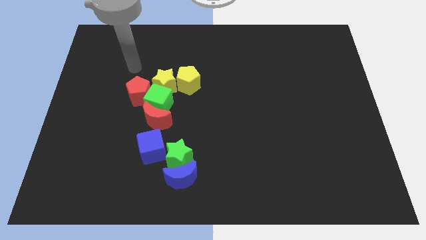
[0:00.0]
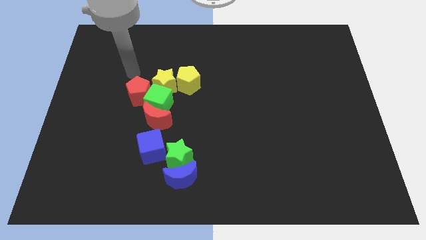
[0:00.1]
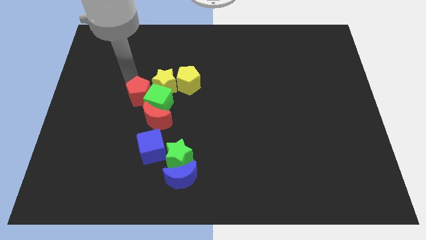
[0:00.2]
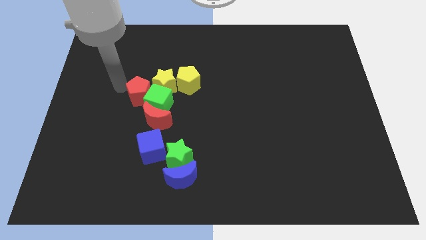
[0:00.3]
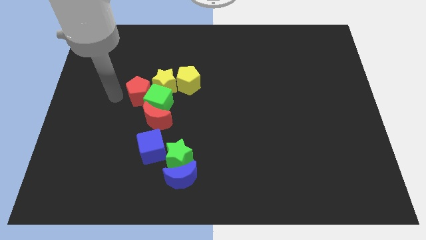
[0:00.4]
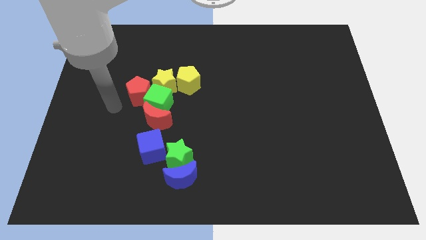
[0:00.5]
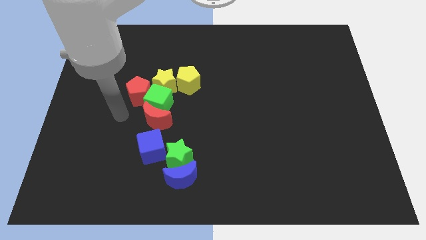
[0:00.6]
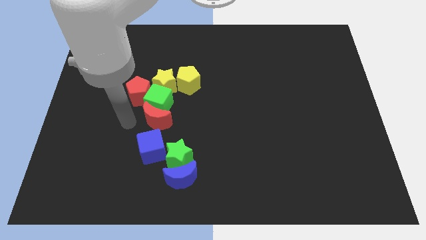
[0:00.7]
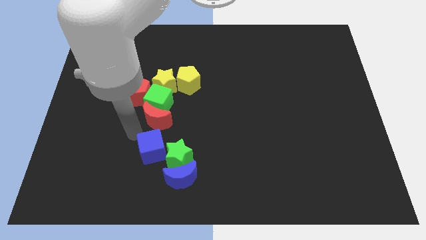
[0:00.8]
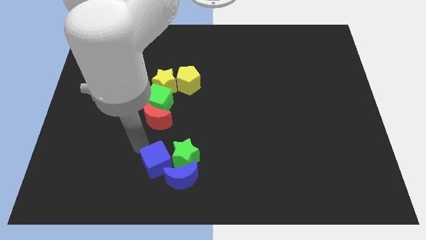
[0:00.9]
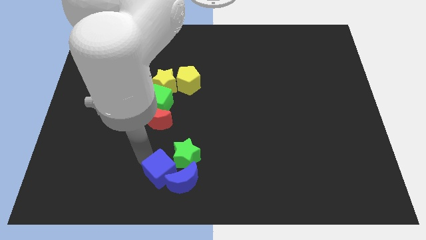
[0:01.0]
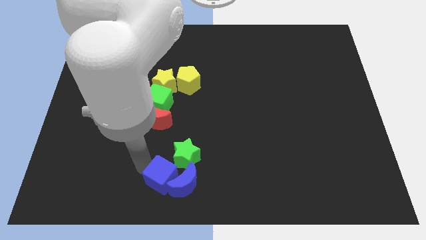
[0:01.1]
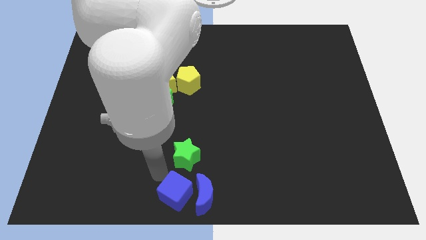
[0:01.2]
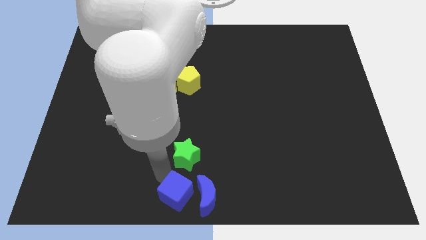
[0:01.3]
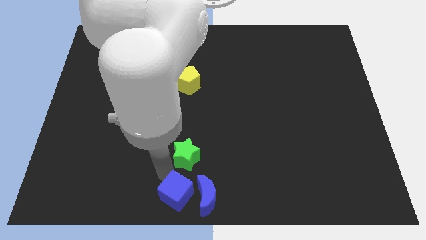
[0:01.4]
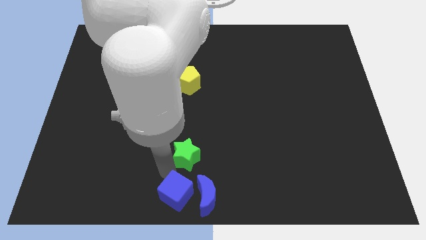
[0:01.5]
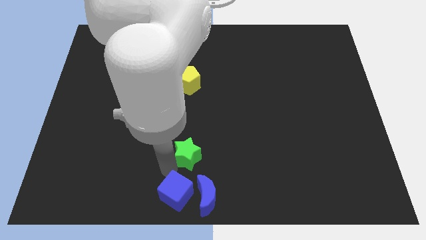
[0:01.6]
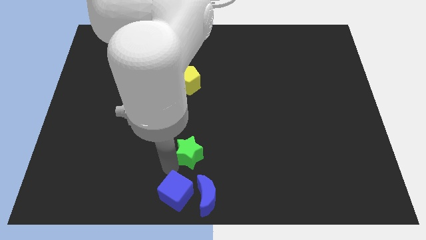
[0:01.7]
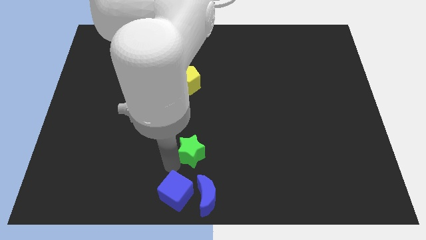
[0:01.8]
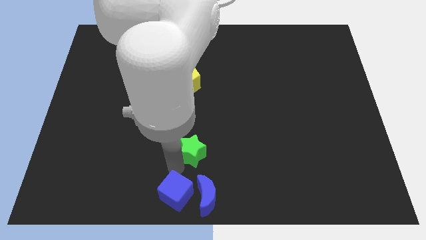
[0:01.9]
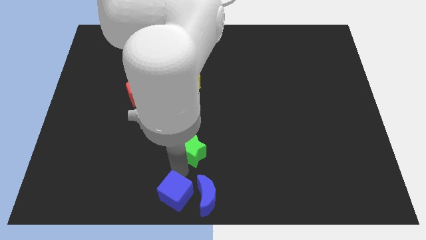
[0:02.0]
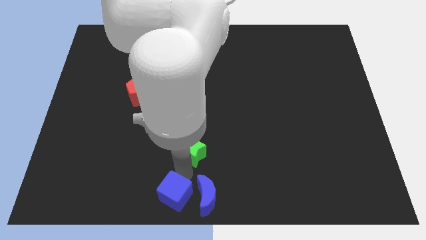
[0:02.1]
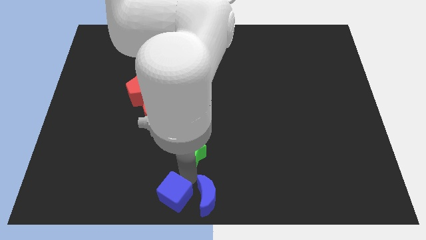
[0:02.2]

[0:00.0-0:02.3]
move the green star away from the blue moon and blue cube

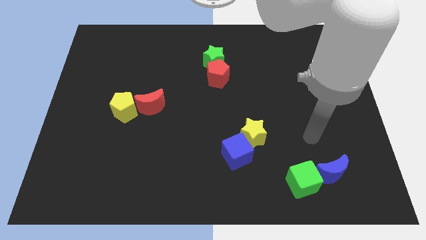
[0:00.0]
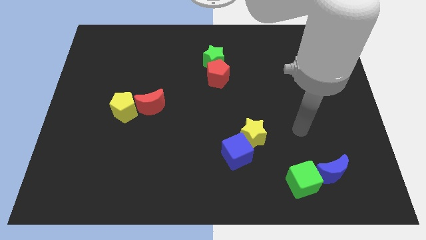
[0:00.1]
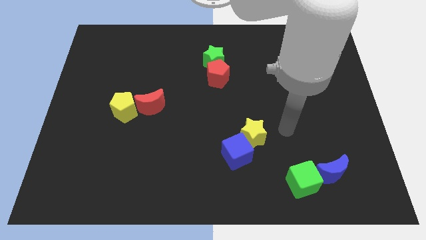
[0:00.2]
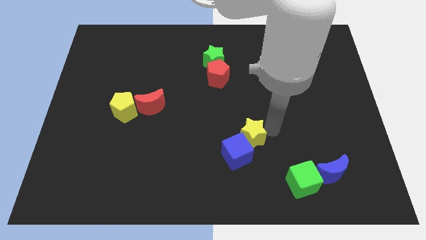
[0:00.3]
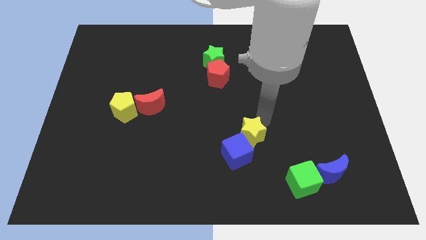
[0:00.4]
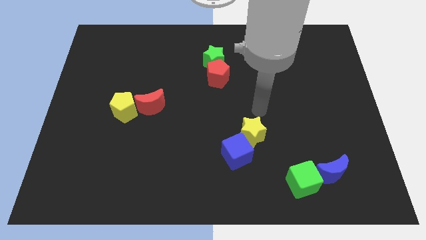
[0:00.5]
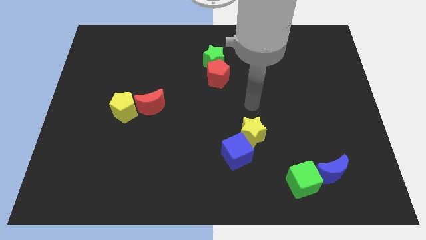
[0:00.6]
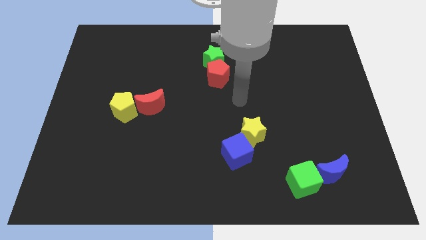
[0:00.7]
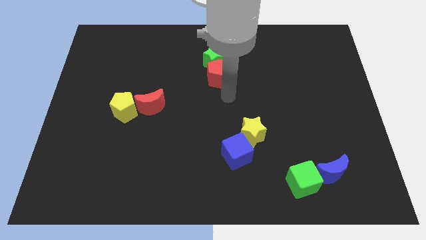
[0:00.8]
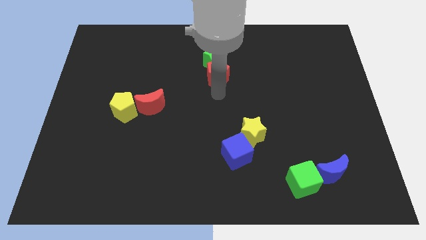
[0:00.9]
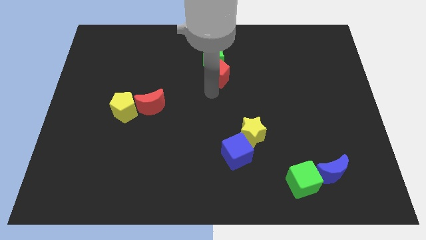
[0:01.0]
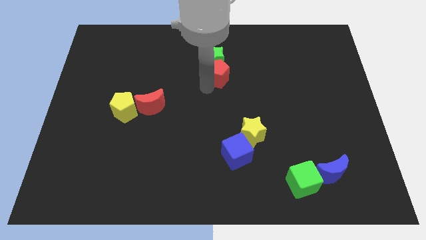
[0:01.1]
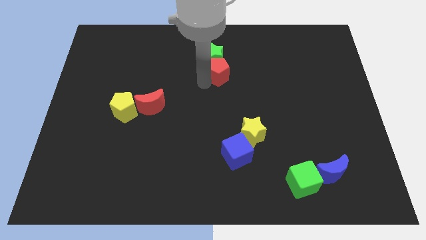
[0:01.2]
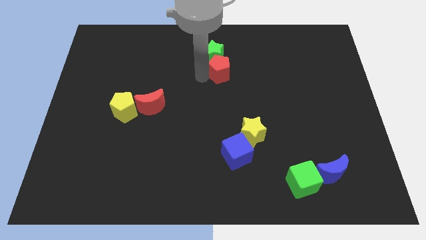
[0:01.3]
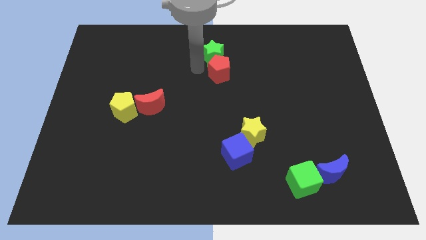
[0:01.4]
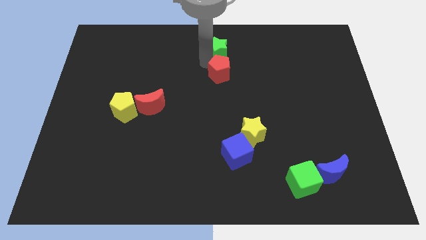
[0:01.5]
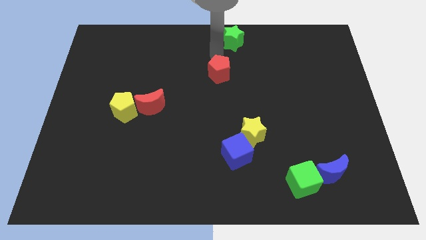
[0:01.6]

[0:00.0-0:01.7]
move the red pentagon away from the green star

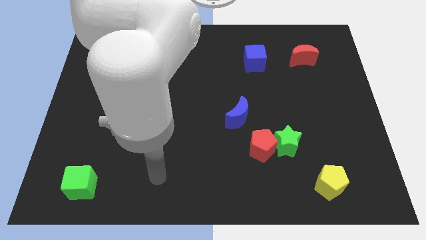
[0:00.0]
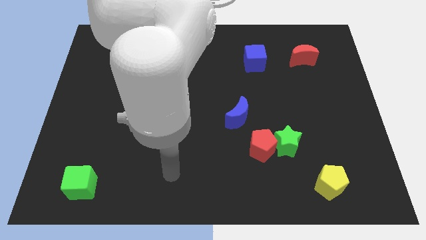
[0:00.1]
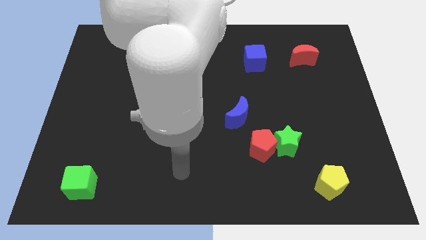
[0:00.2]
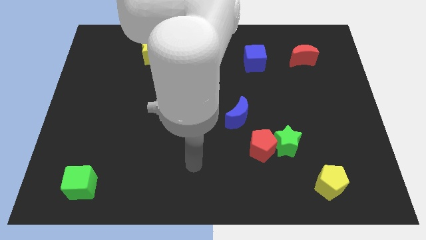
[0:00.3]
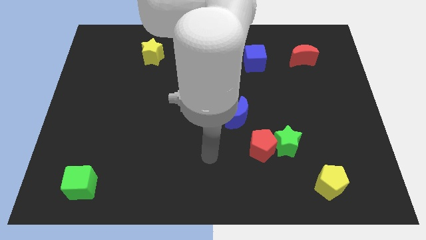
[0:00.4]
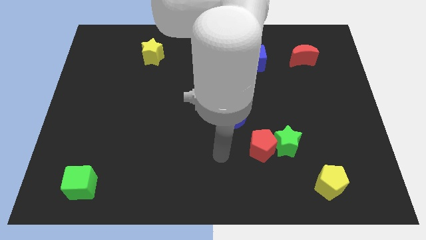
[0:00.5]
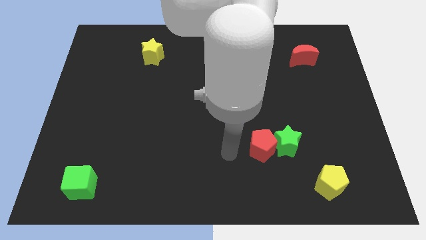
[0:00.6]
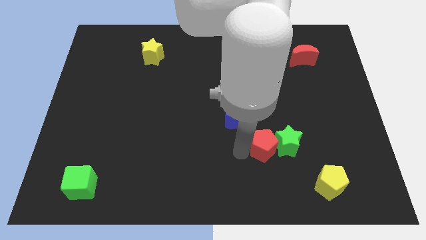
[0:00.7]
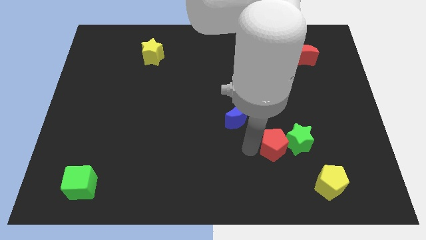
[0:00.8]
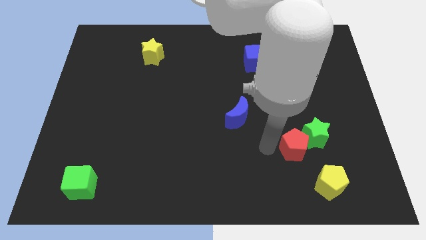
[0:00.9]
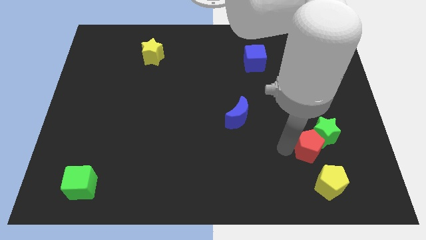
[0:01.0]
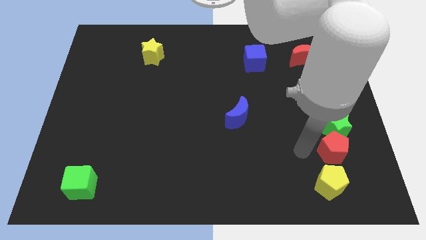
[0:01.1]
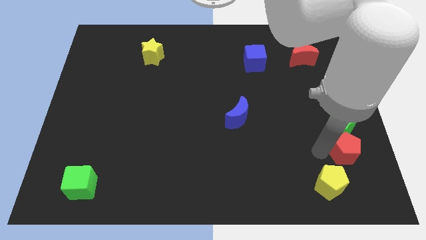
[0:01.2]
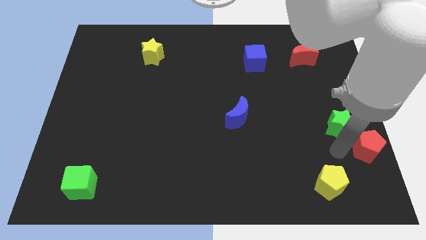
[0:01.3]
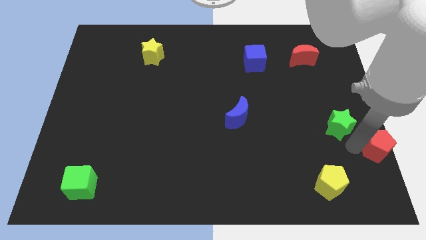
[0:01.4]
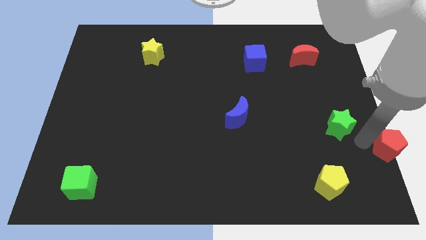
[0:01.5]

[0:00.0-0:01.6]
move the green star away from the red pentagon

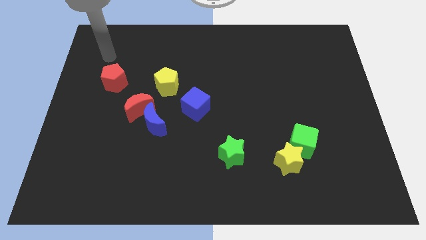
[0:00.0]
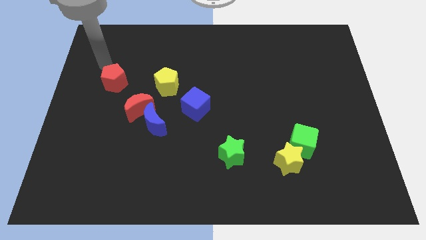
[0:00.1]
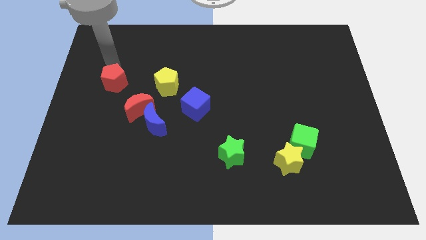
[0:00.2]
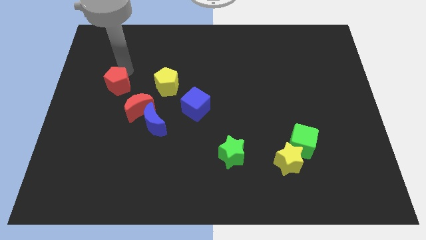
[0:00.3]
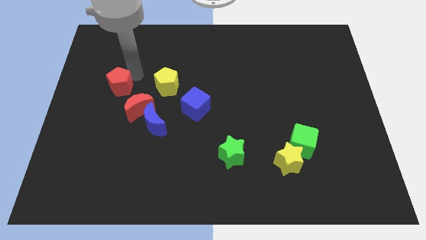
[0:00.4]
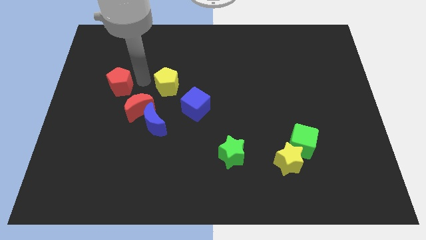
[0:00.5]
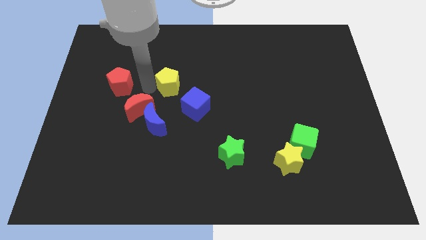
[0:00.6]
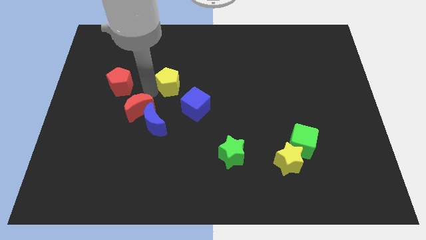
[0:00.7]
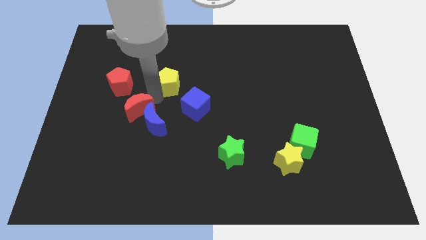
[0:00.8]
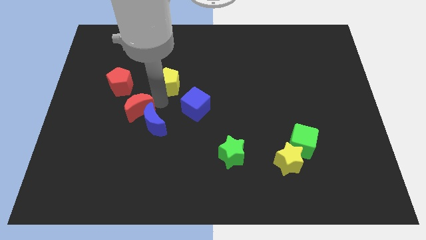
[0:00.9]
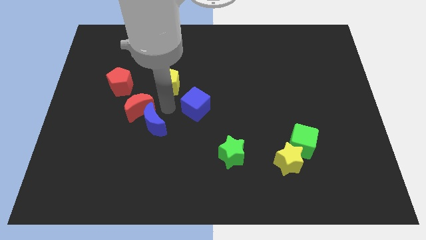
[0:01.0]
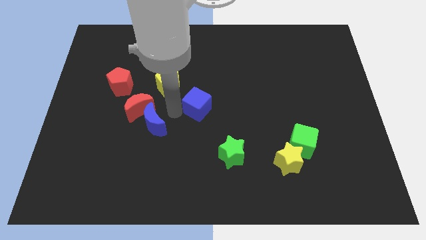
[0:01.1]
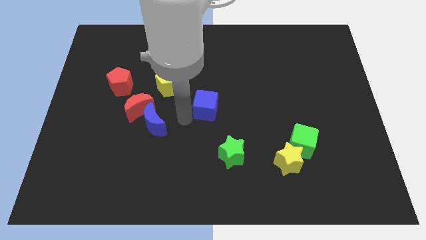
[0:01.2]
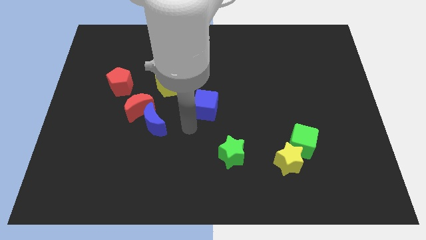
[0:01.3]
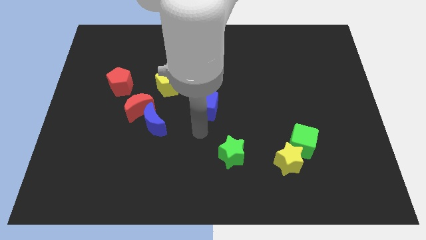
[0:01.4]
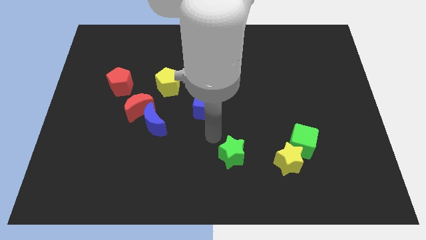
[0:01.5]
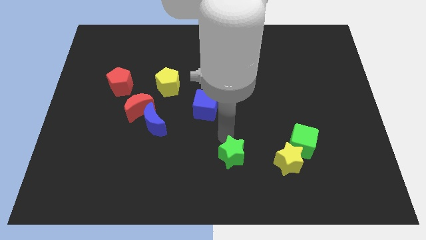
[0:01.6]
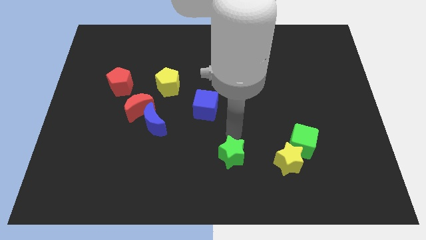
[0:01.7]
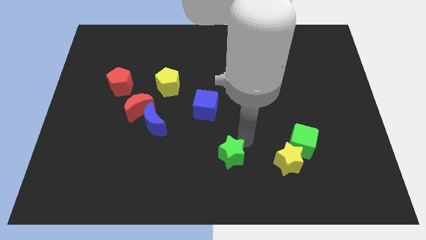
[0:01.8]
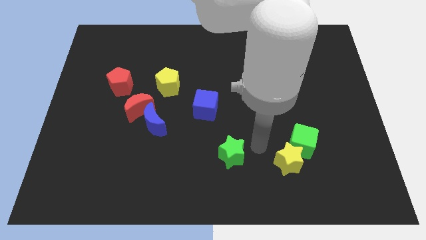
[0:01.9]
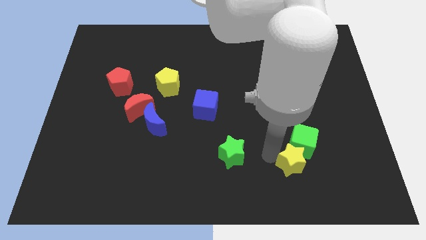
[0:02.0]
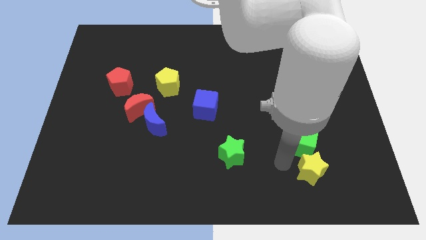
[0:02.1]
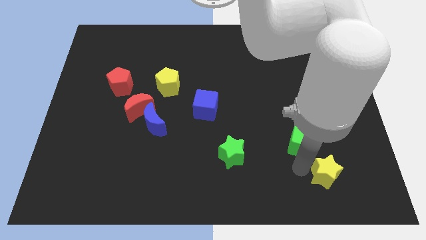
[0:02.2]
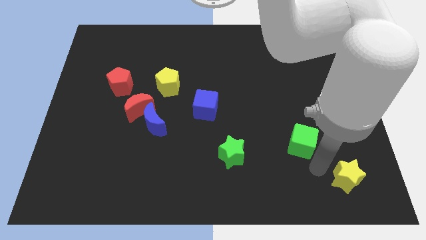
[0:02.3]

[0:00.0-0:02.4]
move the green cube away from the yellow star

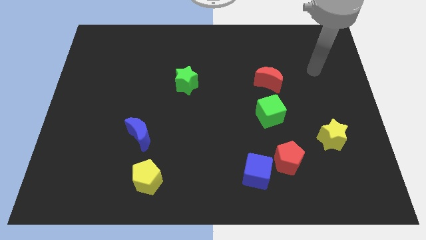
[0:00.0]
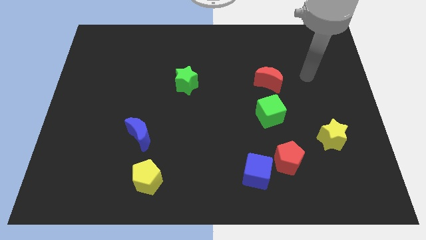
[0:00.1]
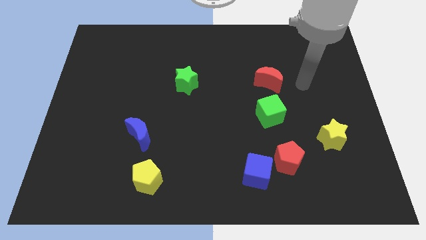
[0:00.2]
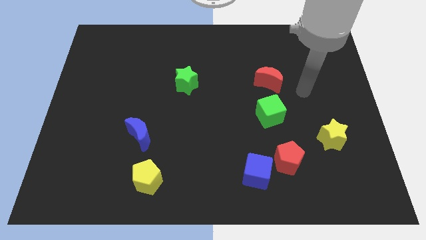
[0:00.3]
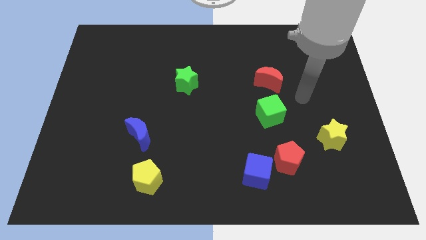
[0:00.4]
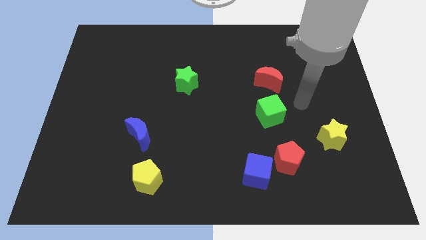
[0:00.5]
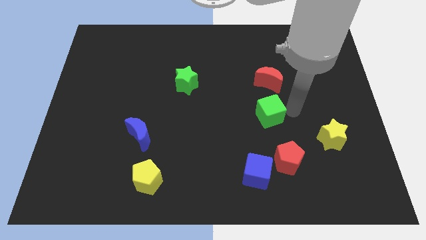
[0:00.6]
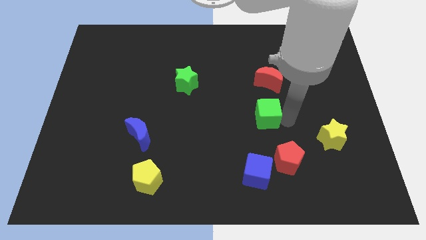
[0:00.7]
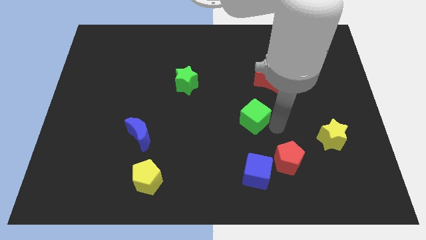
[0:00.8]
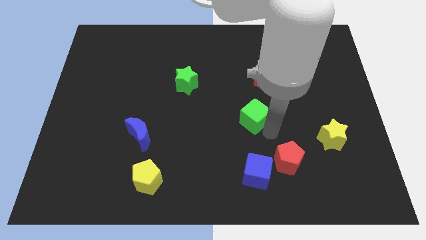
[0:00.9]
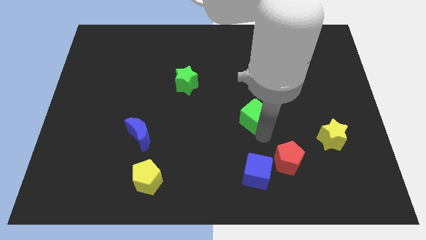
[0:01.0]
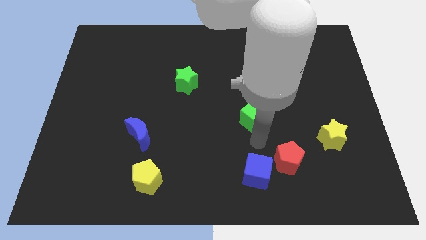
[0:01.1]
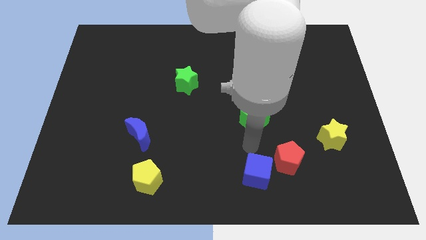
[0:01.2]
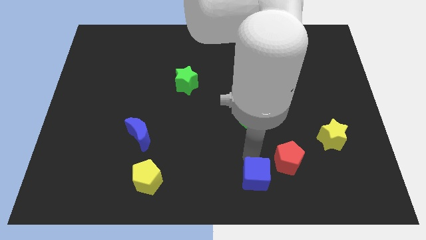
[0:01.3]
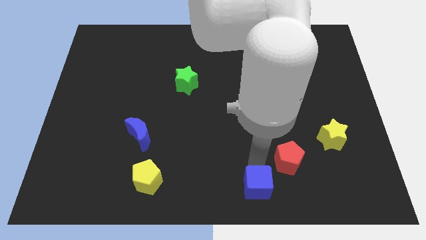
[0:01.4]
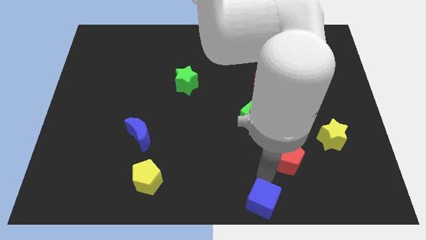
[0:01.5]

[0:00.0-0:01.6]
separate the red pentagon from the blue cube
